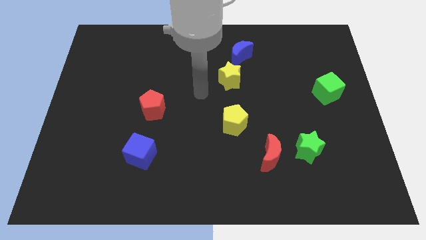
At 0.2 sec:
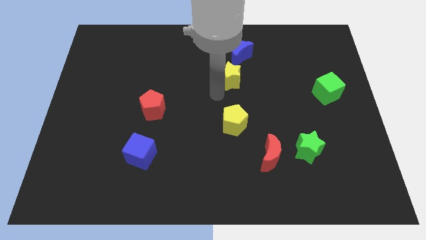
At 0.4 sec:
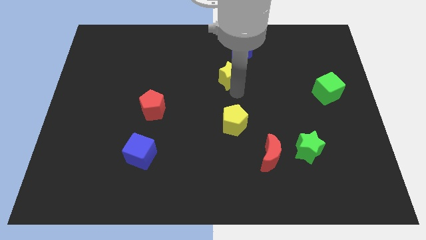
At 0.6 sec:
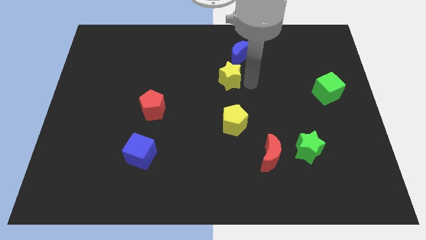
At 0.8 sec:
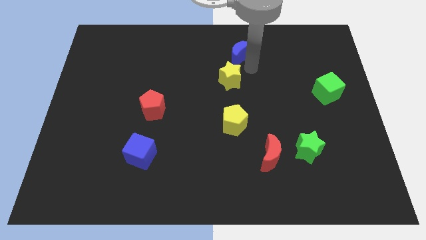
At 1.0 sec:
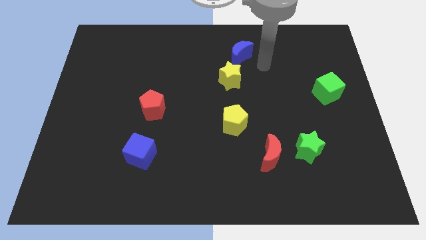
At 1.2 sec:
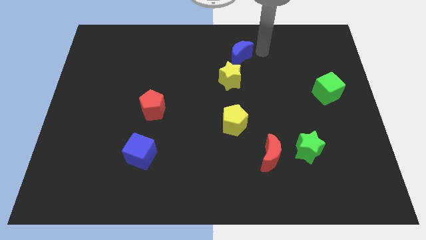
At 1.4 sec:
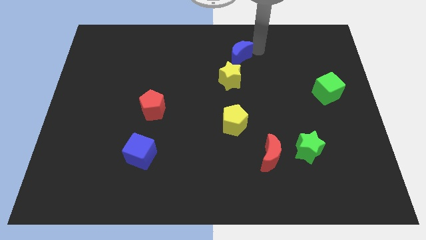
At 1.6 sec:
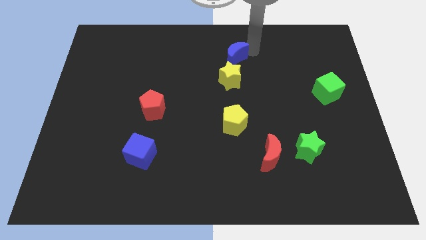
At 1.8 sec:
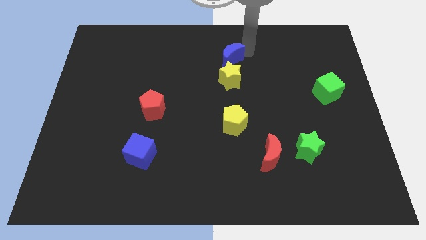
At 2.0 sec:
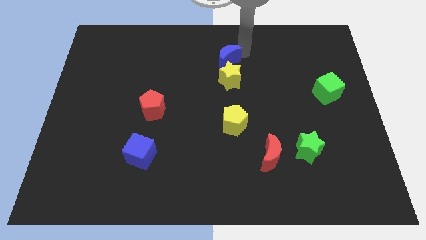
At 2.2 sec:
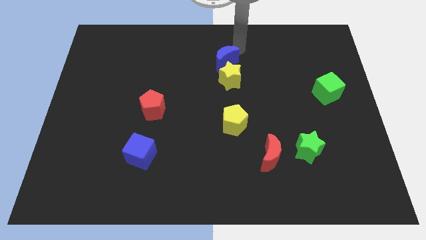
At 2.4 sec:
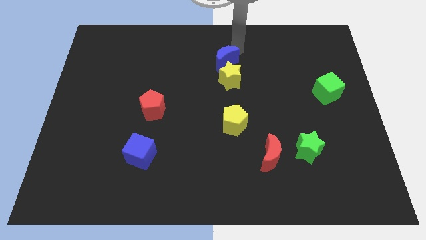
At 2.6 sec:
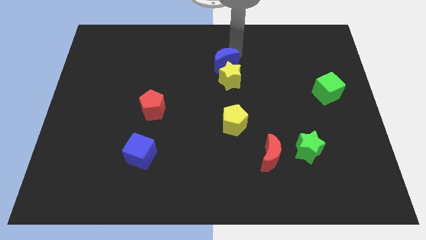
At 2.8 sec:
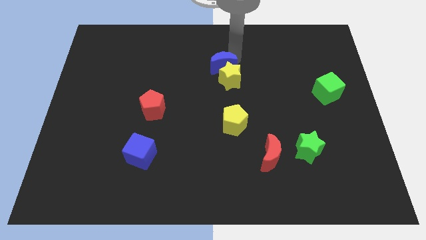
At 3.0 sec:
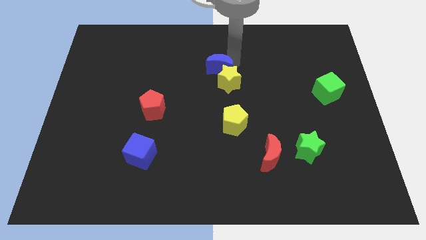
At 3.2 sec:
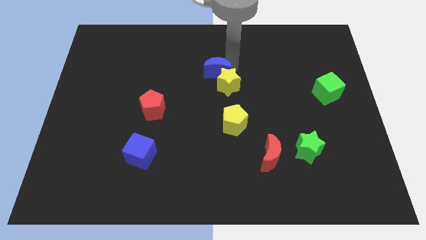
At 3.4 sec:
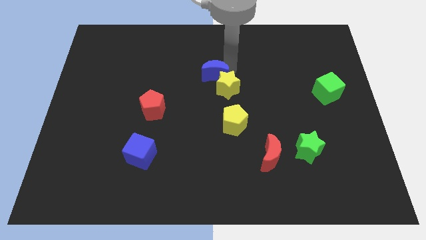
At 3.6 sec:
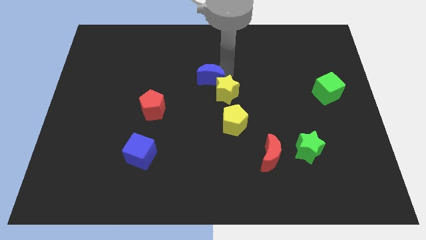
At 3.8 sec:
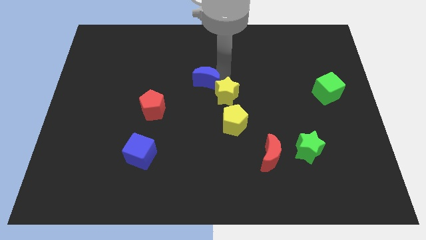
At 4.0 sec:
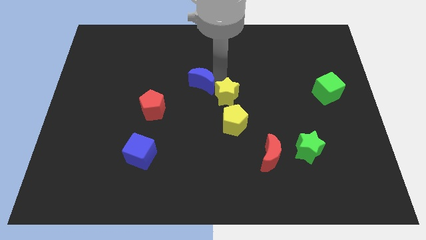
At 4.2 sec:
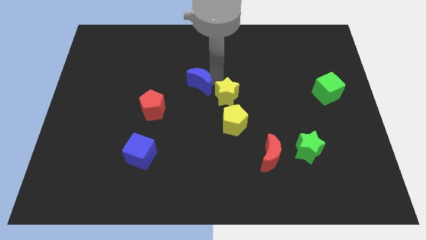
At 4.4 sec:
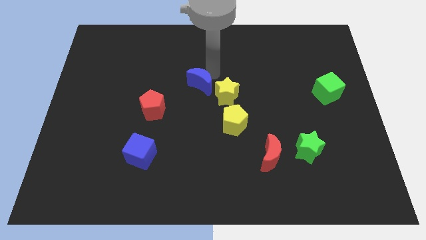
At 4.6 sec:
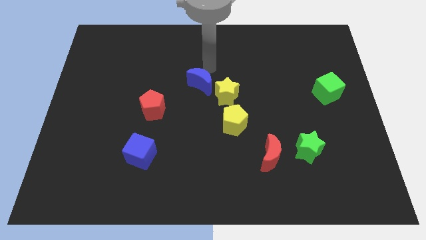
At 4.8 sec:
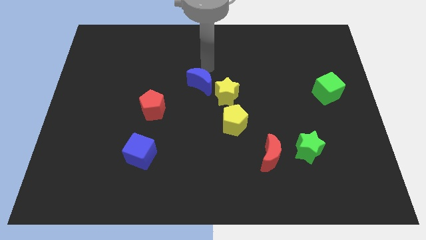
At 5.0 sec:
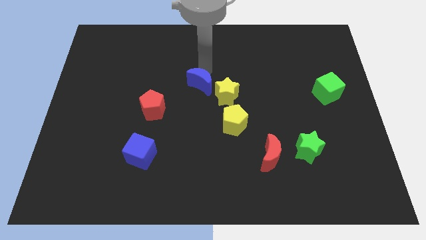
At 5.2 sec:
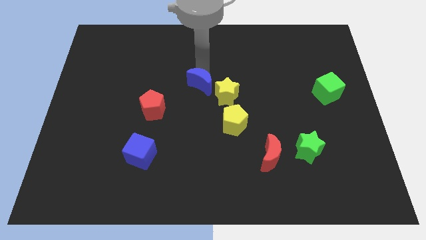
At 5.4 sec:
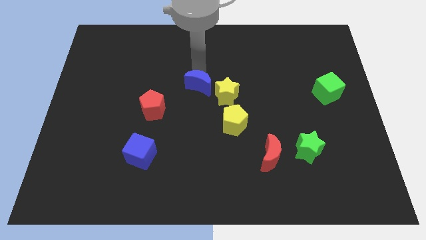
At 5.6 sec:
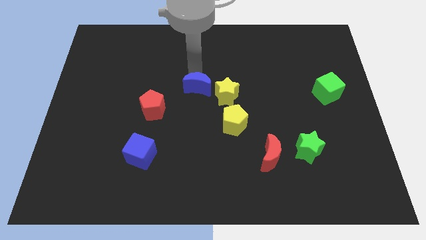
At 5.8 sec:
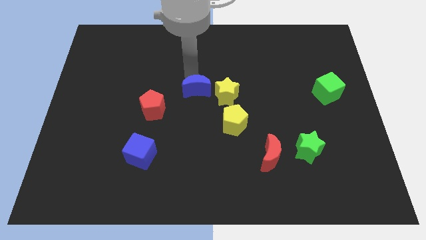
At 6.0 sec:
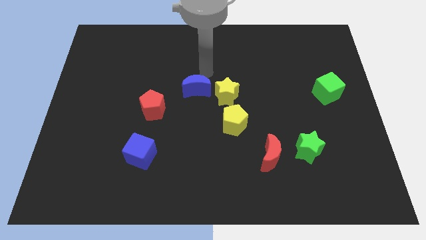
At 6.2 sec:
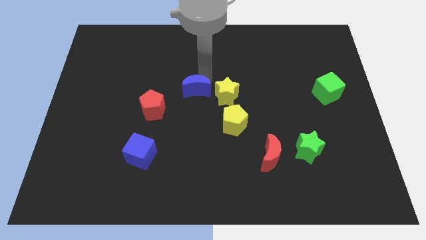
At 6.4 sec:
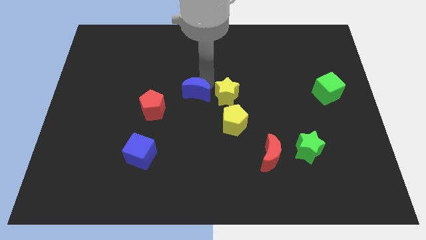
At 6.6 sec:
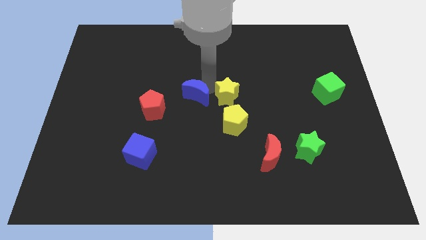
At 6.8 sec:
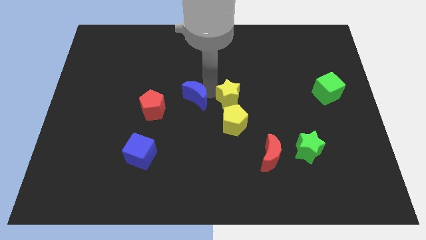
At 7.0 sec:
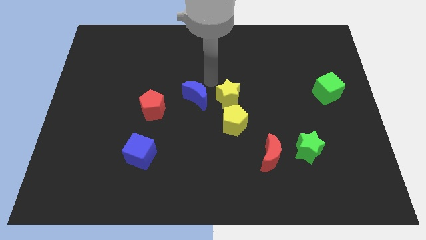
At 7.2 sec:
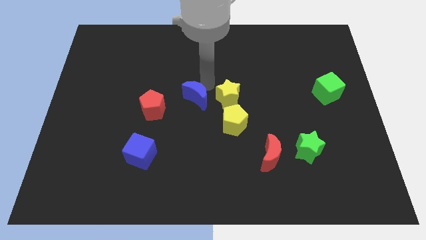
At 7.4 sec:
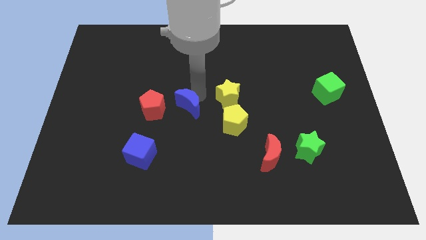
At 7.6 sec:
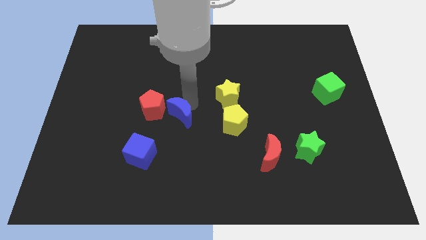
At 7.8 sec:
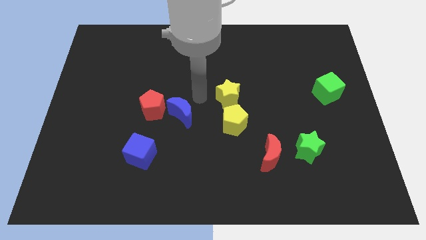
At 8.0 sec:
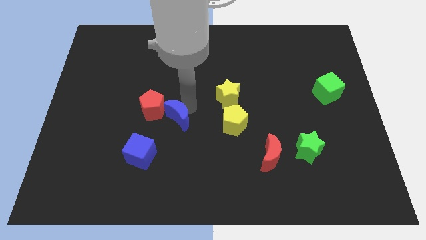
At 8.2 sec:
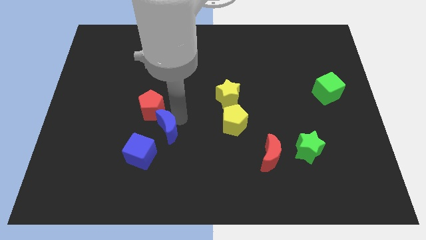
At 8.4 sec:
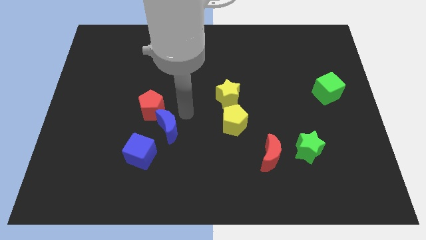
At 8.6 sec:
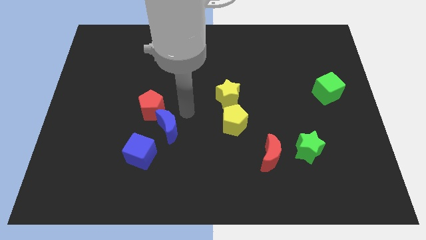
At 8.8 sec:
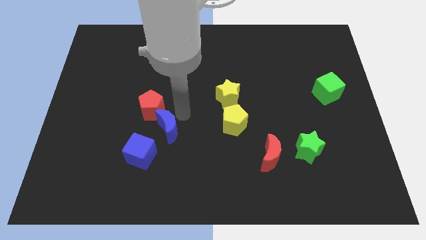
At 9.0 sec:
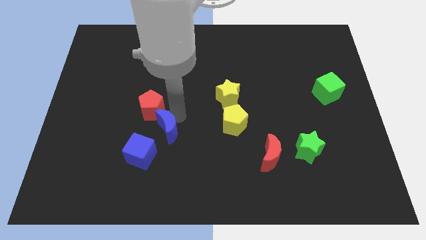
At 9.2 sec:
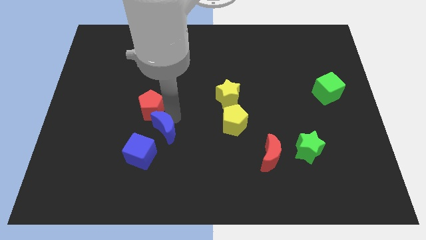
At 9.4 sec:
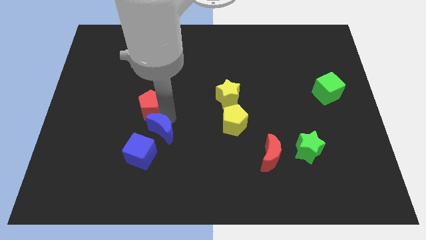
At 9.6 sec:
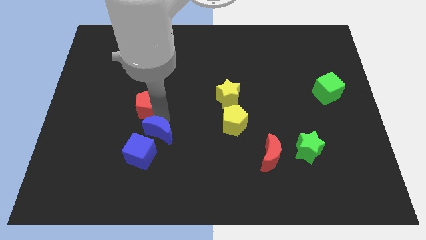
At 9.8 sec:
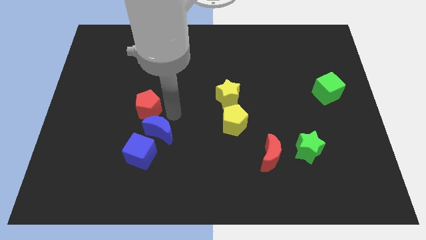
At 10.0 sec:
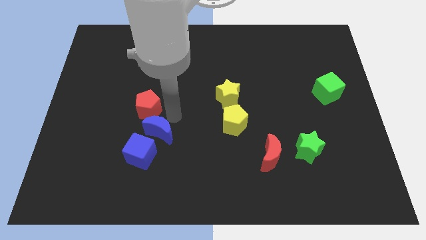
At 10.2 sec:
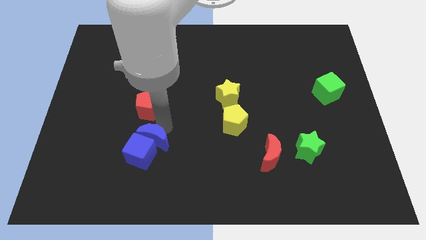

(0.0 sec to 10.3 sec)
move the blue moon to the blue cube

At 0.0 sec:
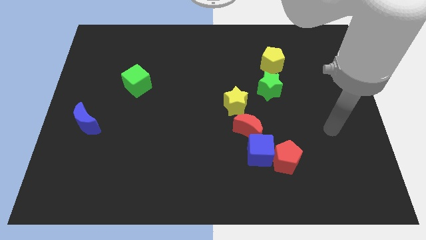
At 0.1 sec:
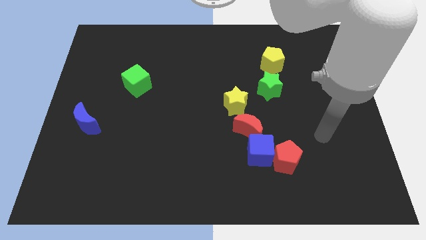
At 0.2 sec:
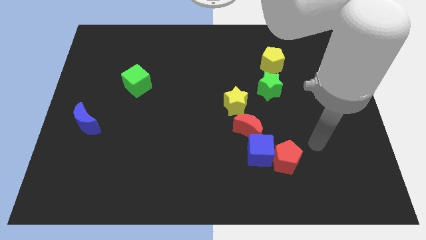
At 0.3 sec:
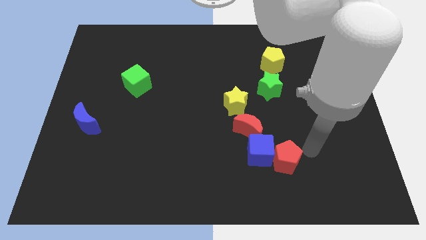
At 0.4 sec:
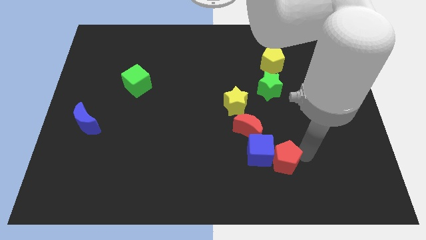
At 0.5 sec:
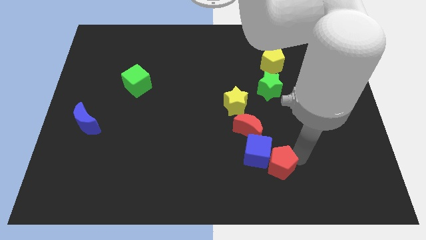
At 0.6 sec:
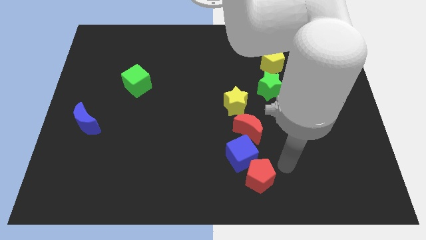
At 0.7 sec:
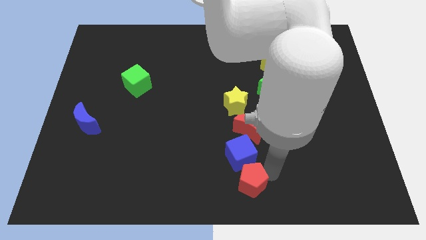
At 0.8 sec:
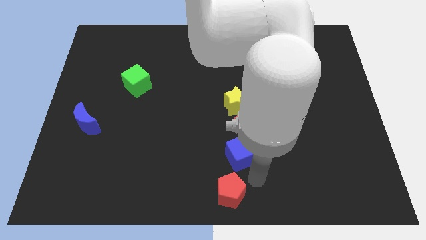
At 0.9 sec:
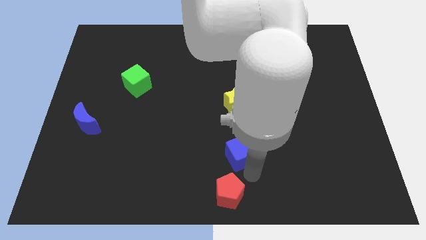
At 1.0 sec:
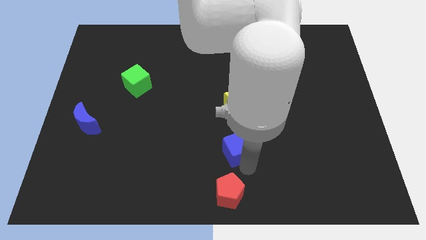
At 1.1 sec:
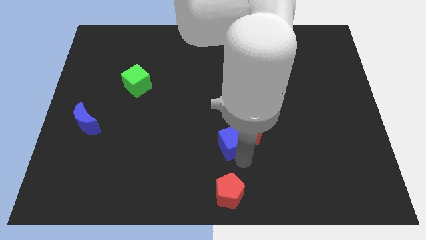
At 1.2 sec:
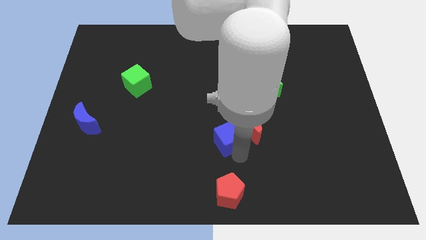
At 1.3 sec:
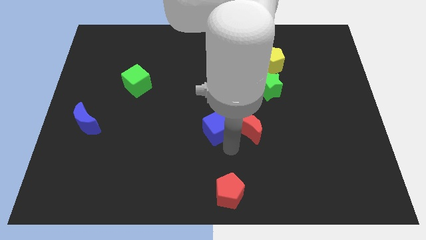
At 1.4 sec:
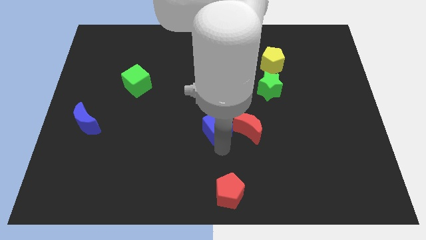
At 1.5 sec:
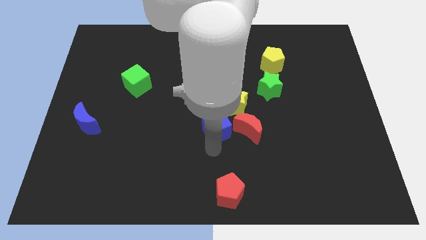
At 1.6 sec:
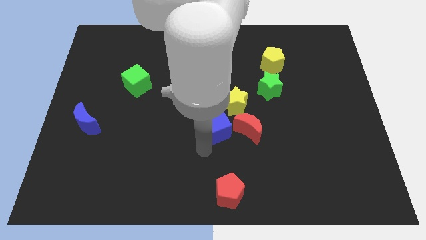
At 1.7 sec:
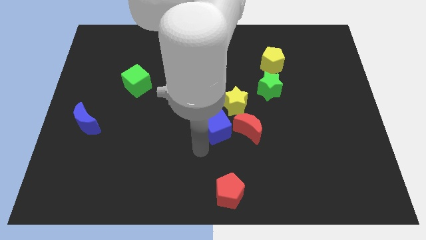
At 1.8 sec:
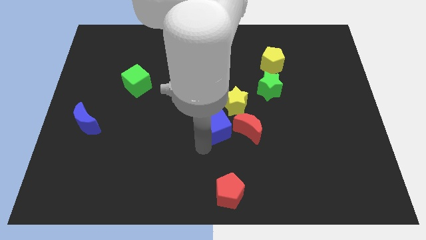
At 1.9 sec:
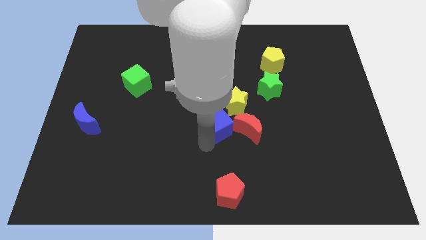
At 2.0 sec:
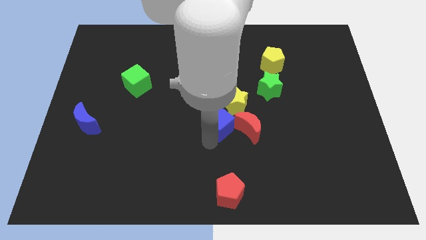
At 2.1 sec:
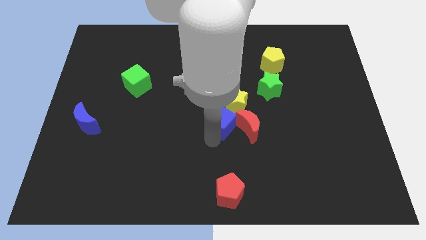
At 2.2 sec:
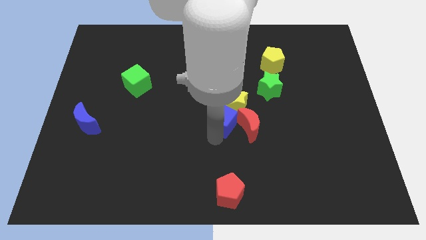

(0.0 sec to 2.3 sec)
slide the blue cube close to the yellow star
